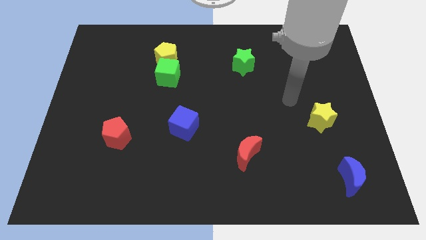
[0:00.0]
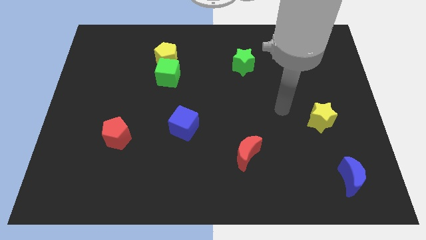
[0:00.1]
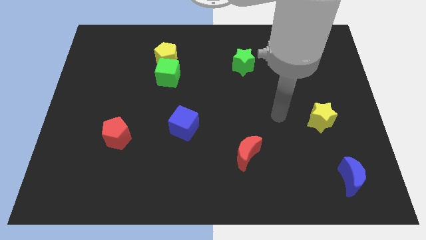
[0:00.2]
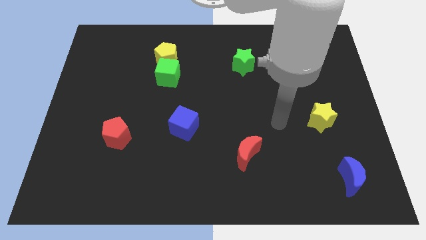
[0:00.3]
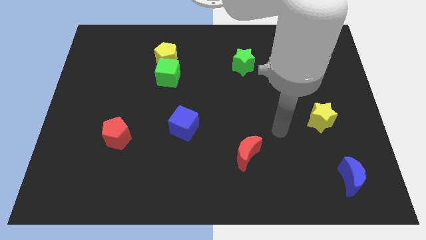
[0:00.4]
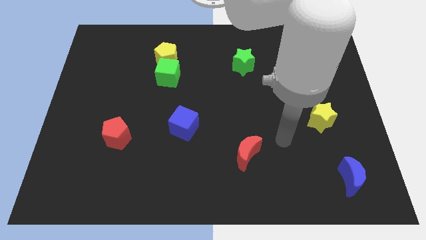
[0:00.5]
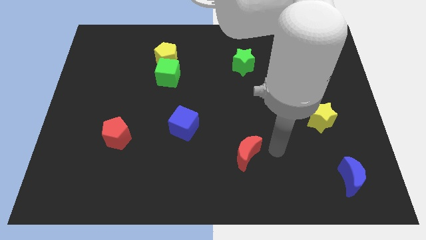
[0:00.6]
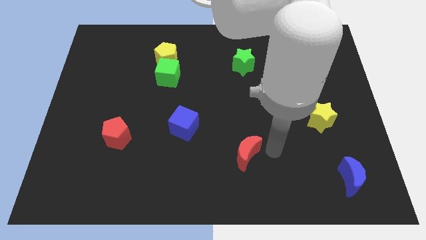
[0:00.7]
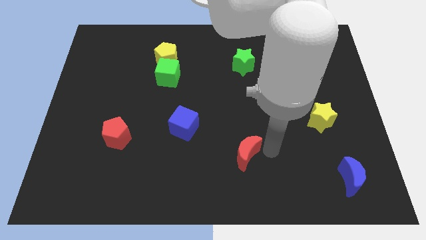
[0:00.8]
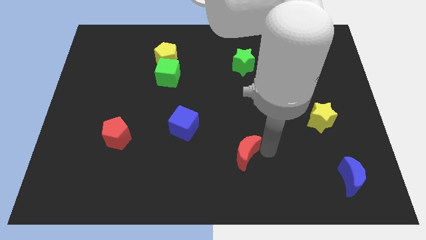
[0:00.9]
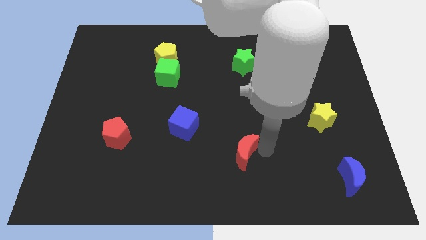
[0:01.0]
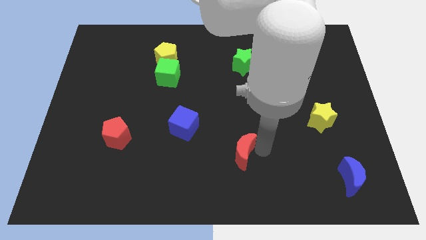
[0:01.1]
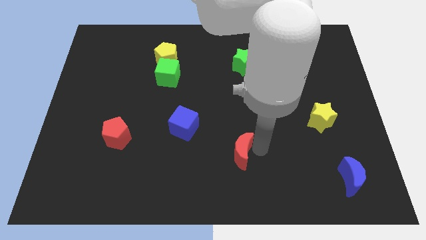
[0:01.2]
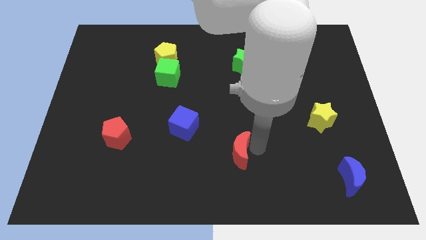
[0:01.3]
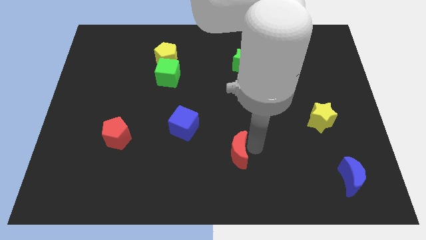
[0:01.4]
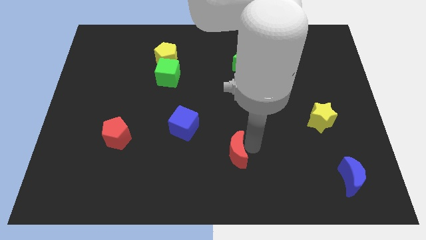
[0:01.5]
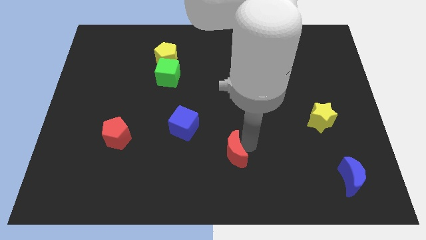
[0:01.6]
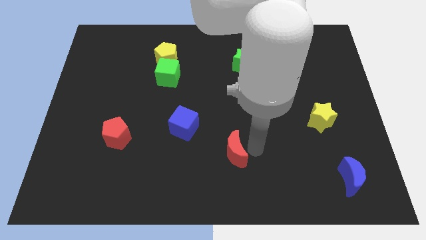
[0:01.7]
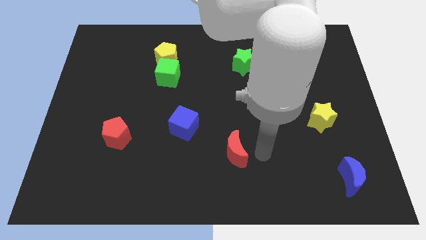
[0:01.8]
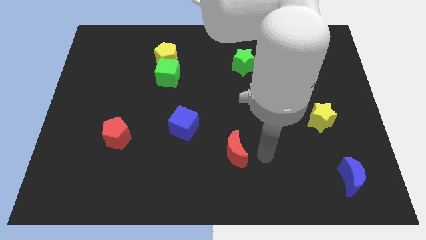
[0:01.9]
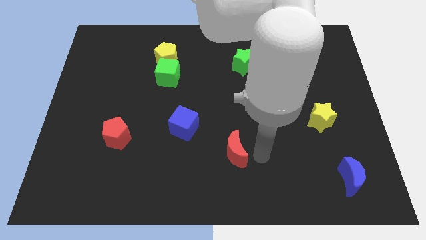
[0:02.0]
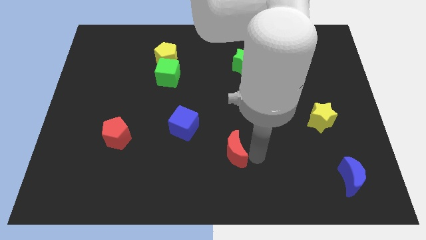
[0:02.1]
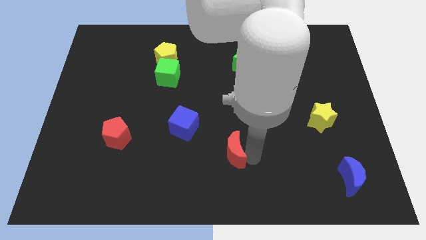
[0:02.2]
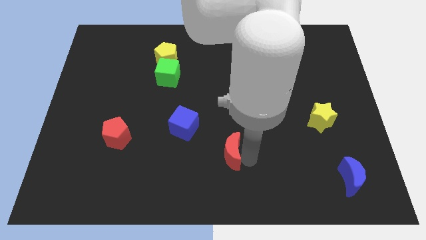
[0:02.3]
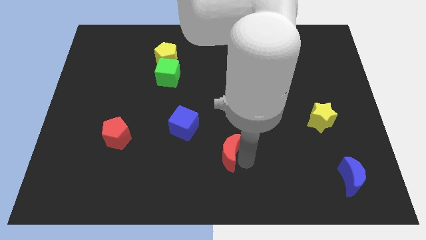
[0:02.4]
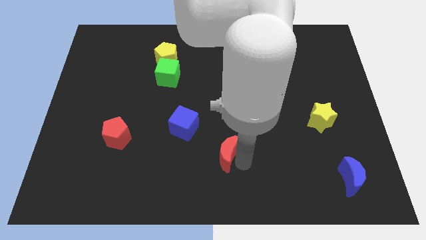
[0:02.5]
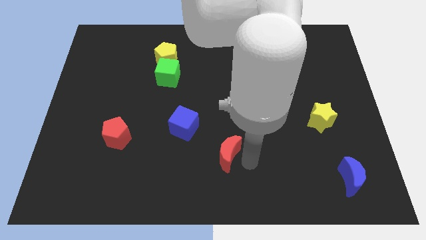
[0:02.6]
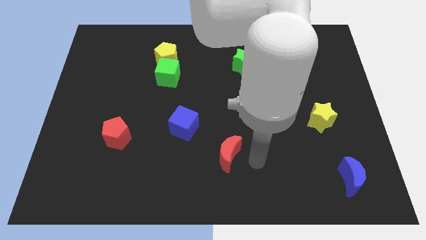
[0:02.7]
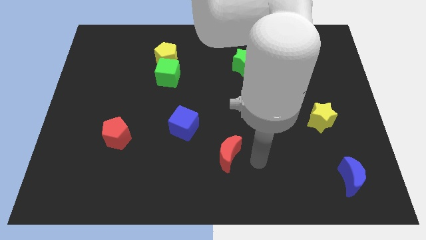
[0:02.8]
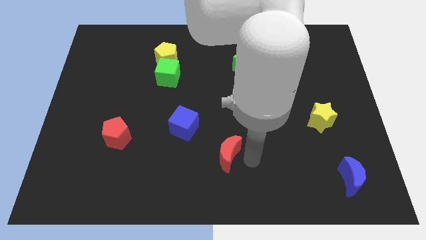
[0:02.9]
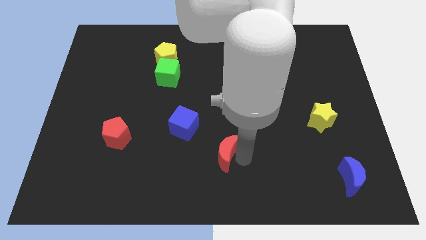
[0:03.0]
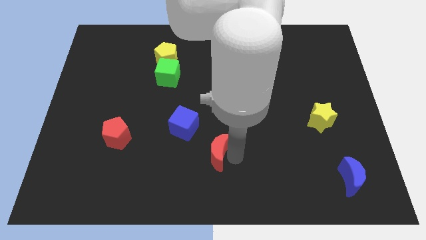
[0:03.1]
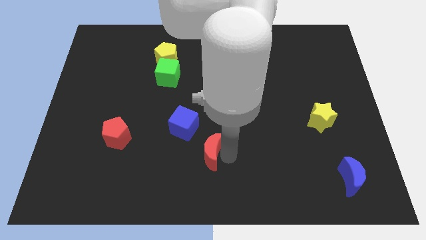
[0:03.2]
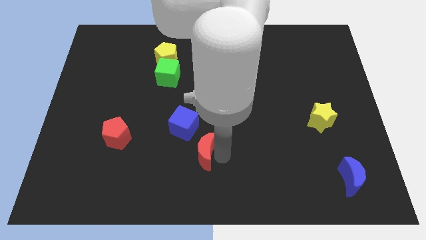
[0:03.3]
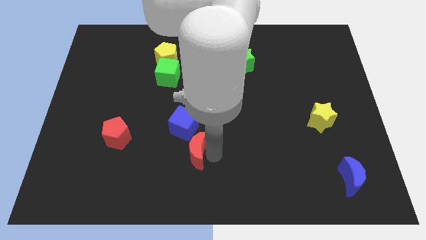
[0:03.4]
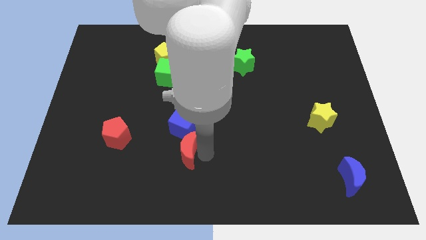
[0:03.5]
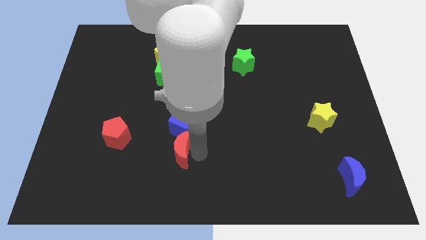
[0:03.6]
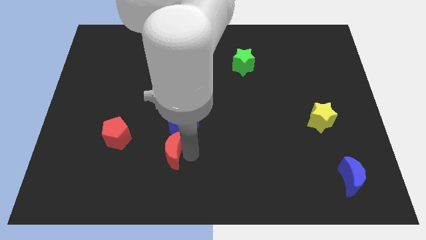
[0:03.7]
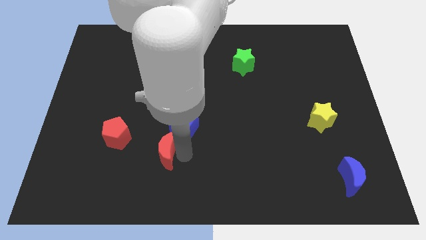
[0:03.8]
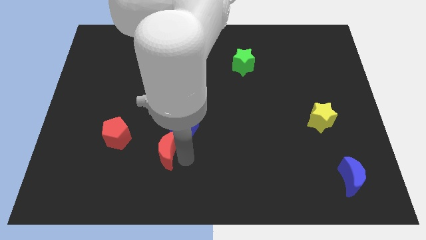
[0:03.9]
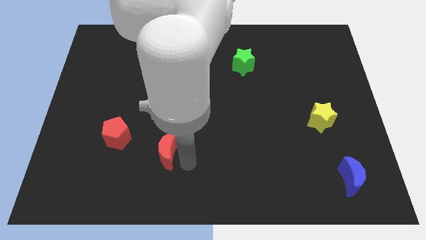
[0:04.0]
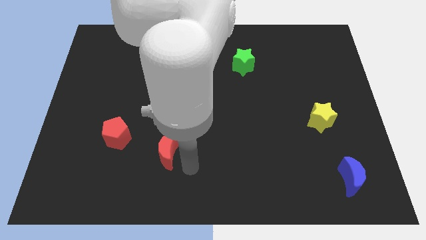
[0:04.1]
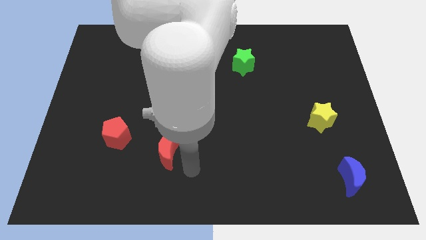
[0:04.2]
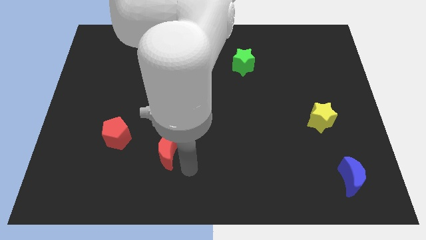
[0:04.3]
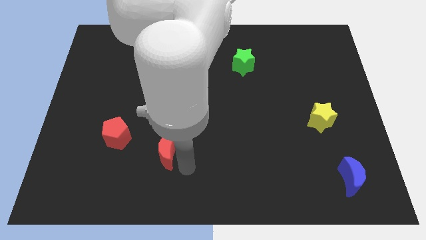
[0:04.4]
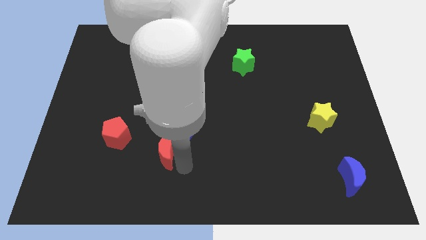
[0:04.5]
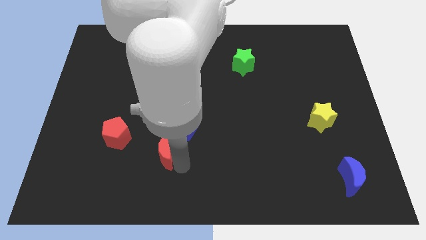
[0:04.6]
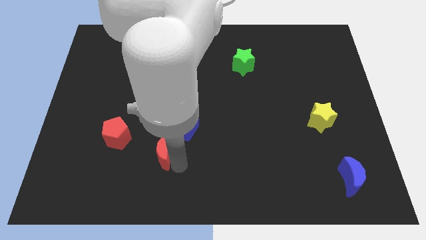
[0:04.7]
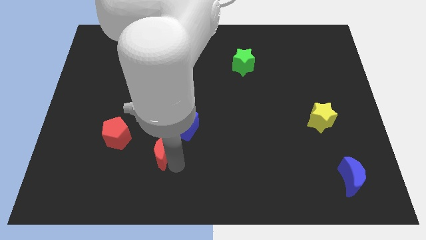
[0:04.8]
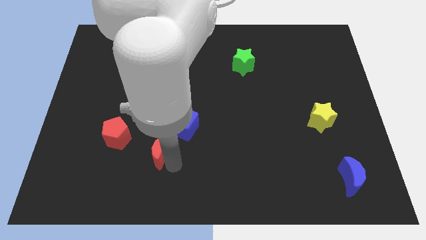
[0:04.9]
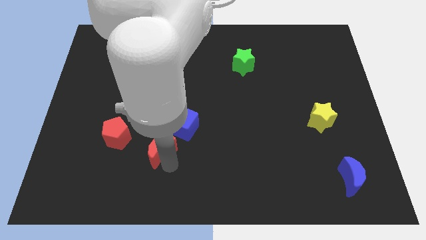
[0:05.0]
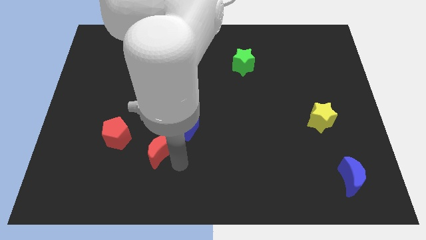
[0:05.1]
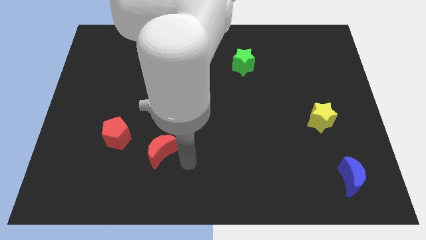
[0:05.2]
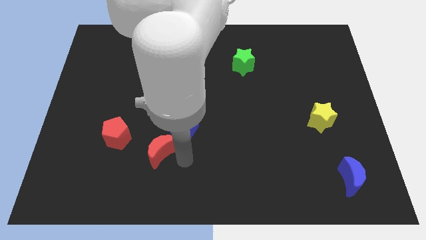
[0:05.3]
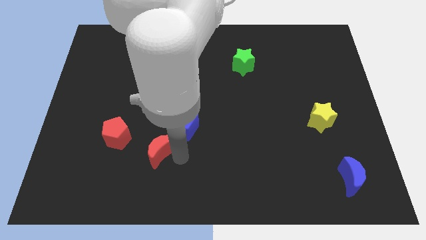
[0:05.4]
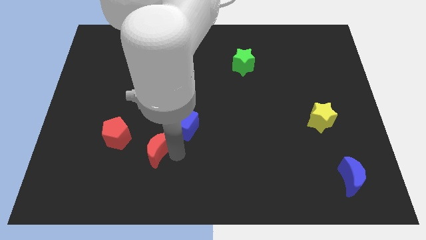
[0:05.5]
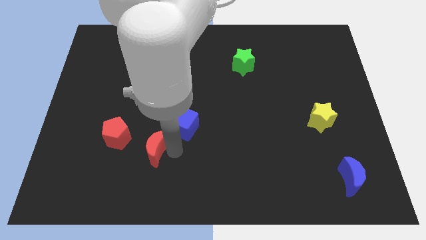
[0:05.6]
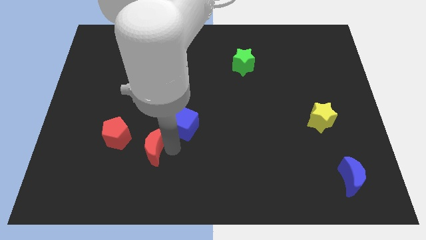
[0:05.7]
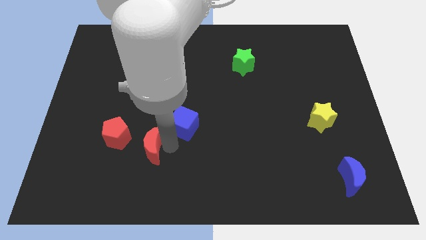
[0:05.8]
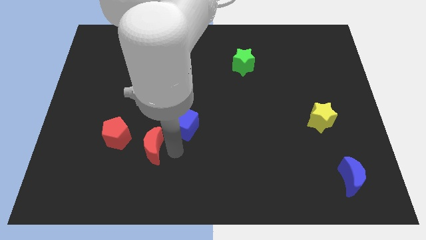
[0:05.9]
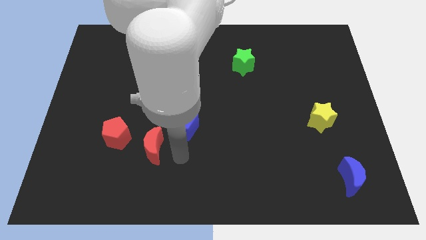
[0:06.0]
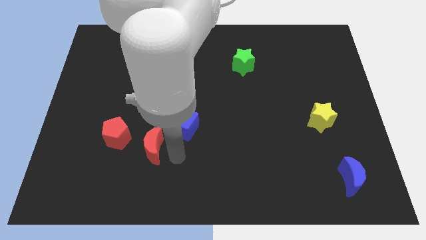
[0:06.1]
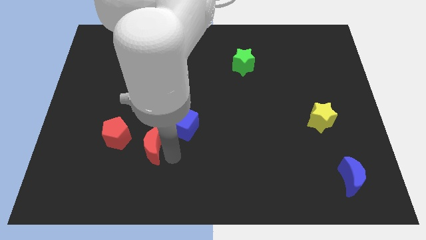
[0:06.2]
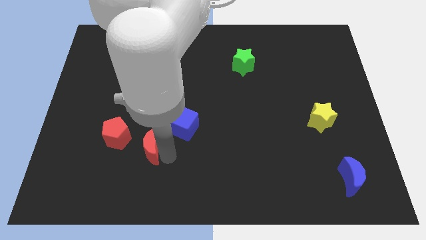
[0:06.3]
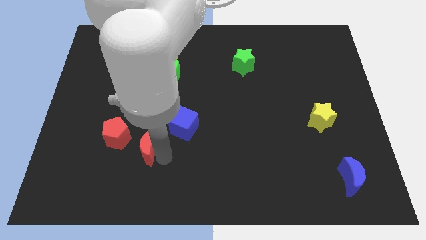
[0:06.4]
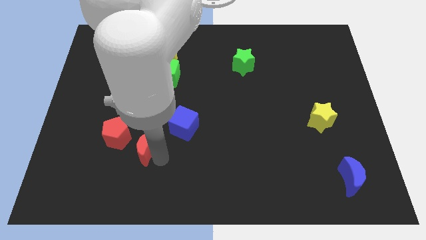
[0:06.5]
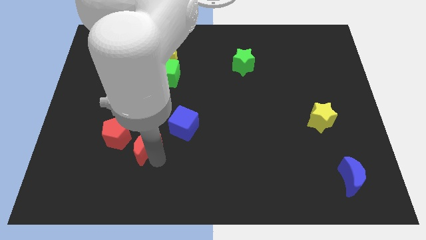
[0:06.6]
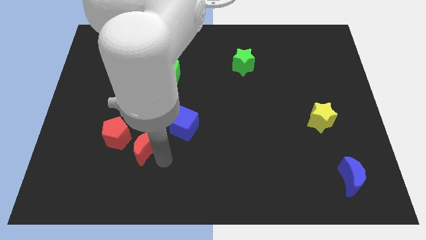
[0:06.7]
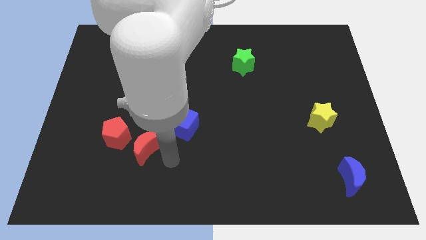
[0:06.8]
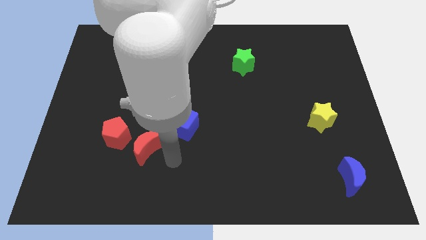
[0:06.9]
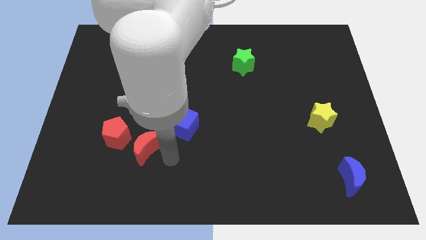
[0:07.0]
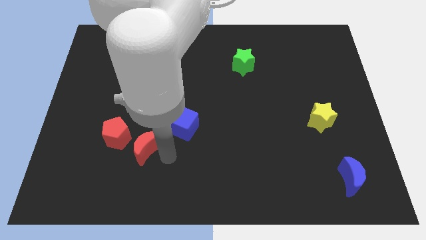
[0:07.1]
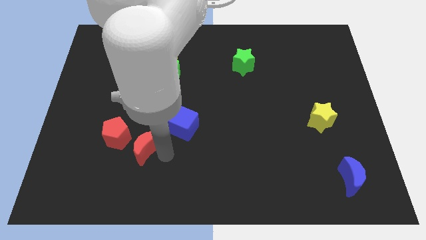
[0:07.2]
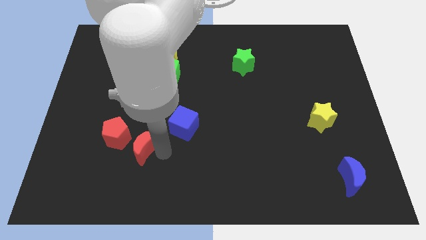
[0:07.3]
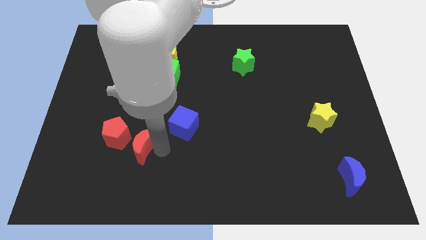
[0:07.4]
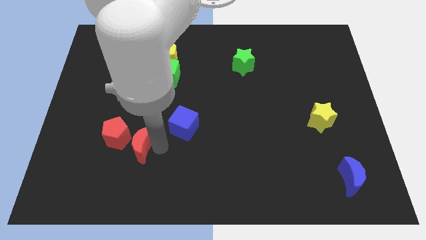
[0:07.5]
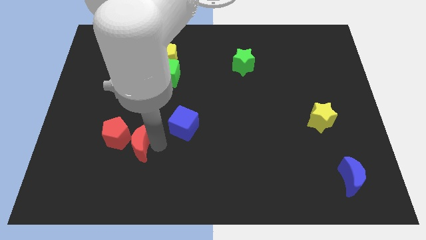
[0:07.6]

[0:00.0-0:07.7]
push the red moon towards the red pentagon
